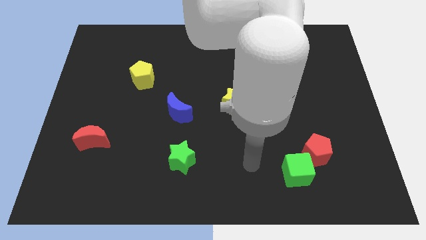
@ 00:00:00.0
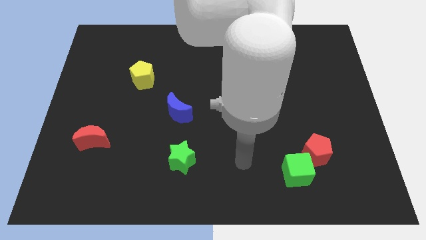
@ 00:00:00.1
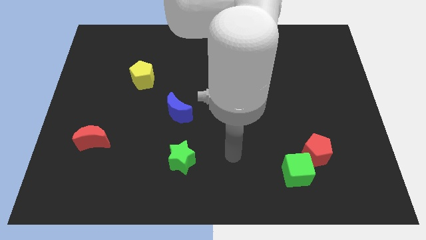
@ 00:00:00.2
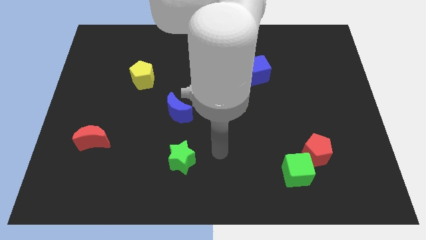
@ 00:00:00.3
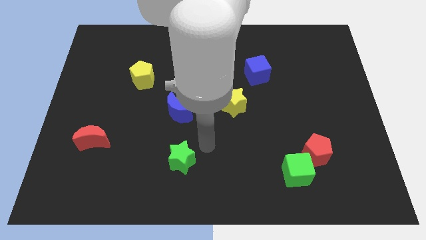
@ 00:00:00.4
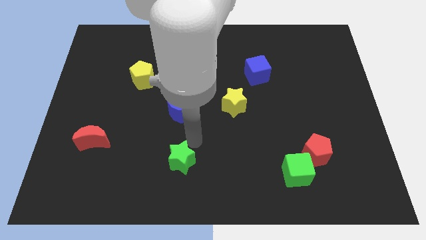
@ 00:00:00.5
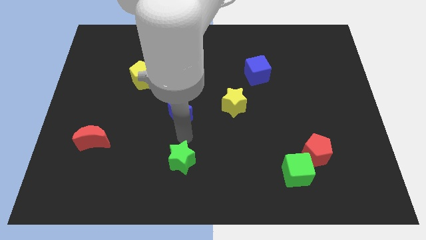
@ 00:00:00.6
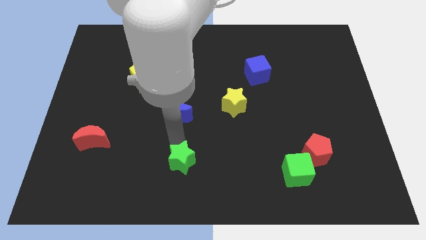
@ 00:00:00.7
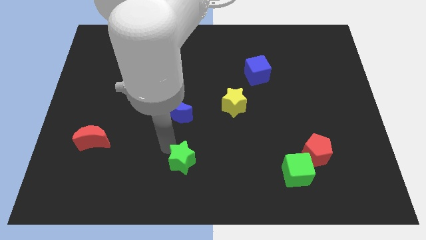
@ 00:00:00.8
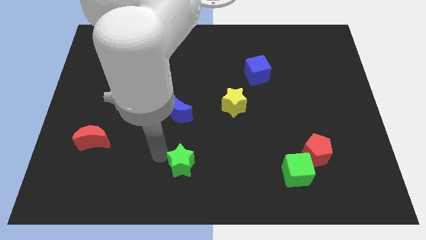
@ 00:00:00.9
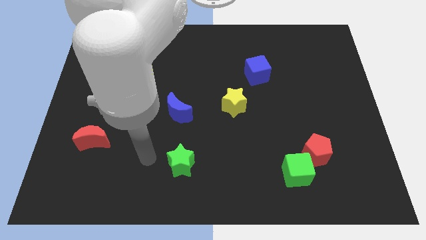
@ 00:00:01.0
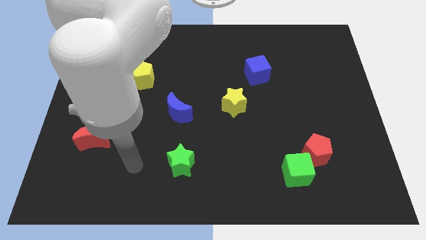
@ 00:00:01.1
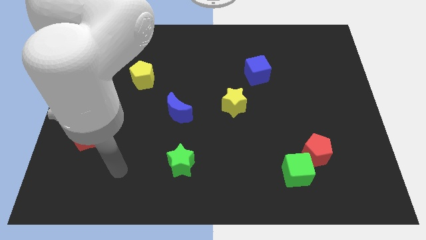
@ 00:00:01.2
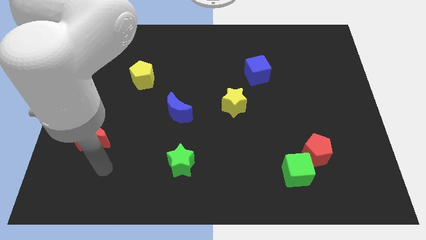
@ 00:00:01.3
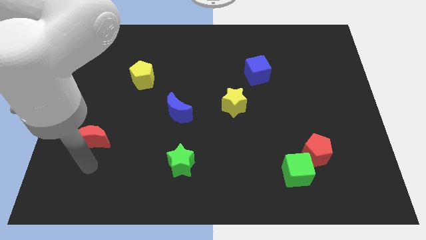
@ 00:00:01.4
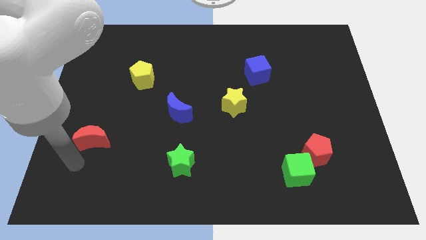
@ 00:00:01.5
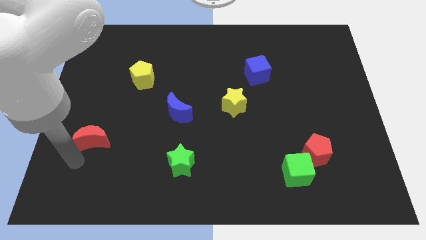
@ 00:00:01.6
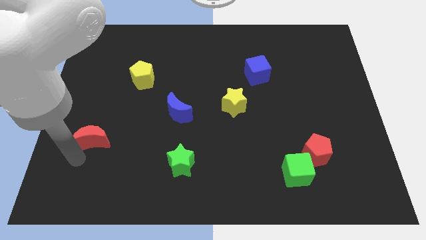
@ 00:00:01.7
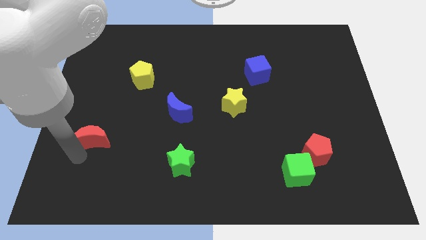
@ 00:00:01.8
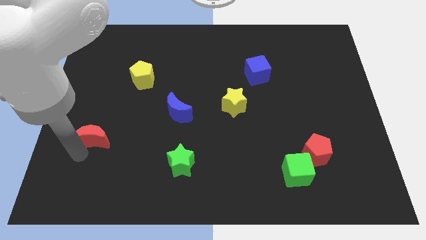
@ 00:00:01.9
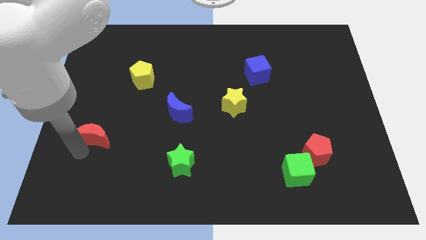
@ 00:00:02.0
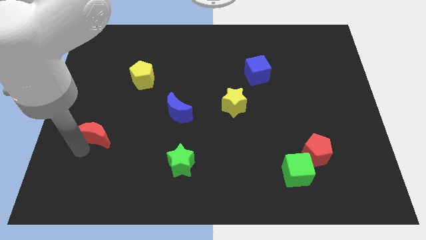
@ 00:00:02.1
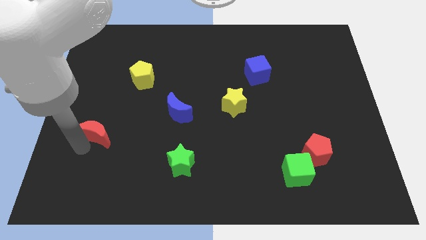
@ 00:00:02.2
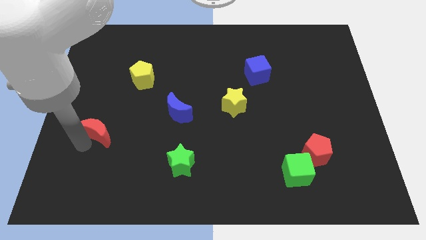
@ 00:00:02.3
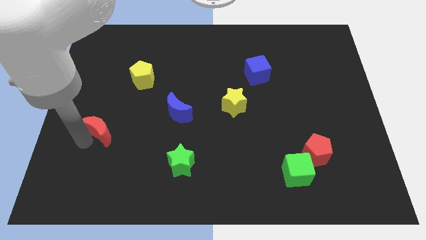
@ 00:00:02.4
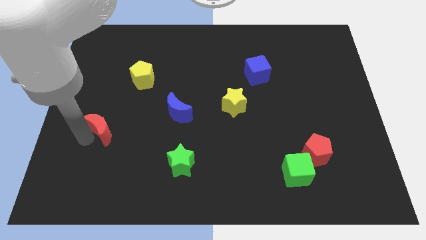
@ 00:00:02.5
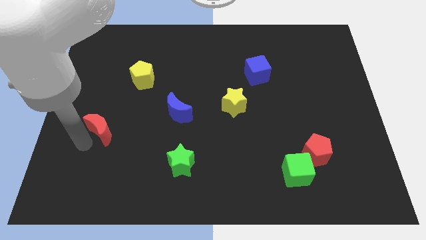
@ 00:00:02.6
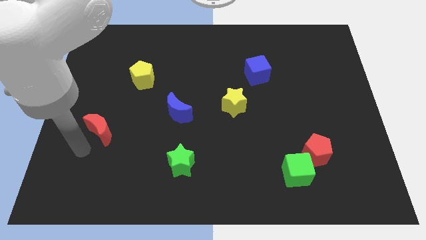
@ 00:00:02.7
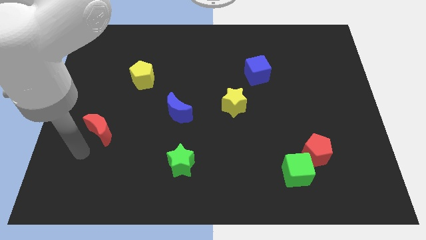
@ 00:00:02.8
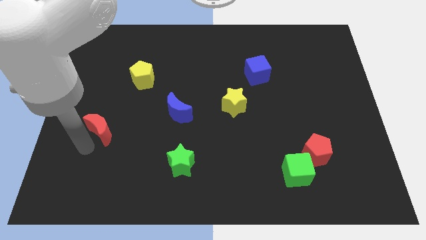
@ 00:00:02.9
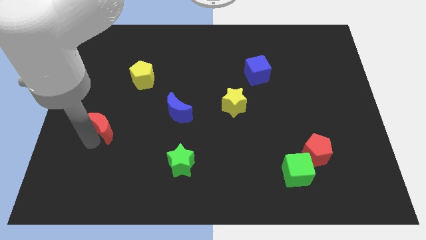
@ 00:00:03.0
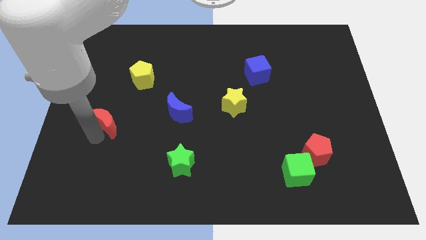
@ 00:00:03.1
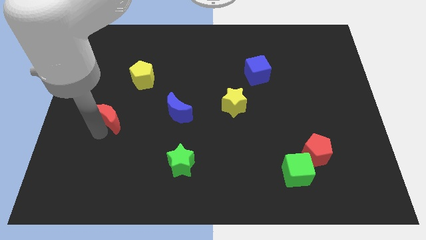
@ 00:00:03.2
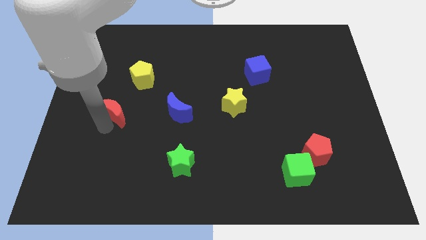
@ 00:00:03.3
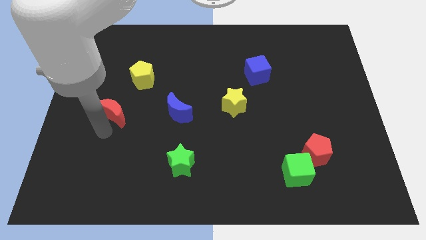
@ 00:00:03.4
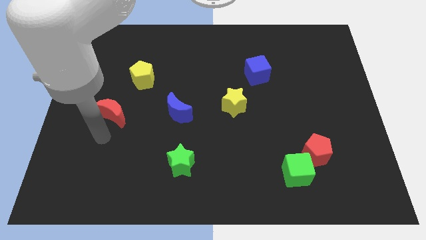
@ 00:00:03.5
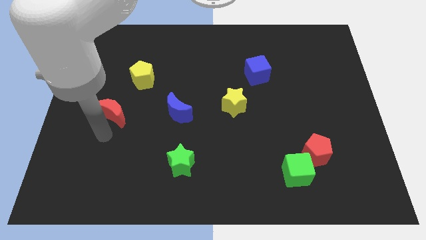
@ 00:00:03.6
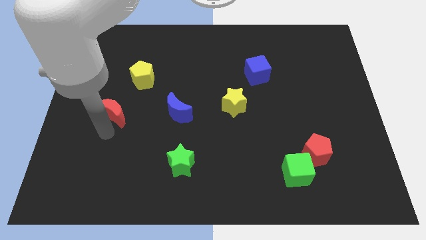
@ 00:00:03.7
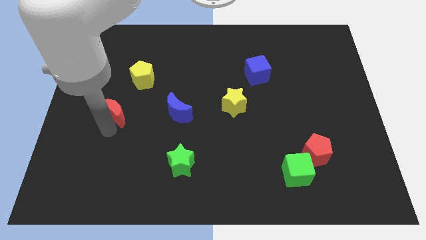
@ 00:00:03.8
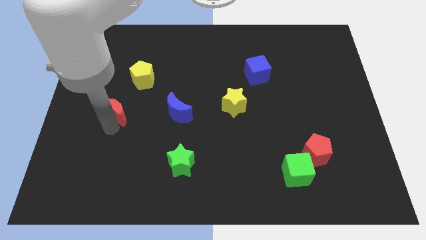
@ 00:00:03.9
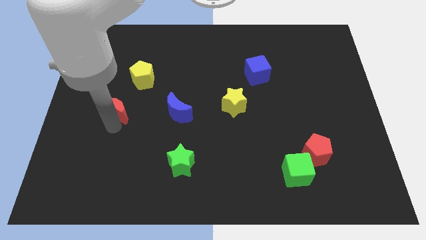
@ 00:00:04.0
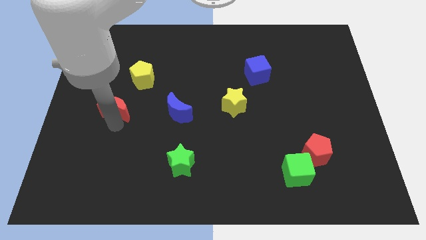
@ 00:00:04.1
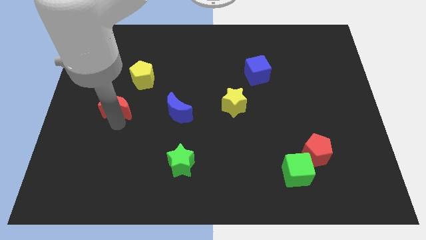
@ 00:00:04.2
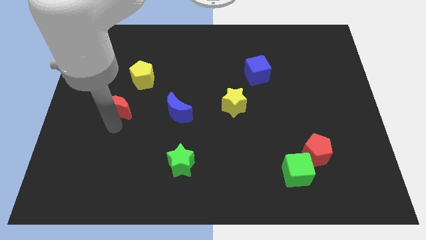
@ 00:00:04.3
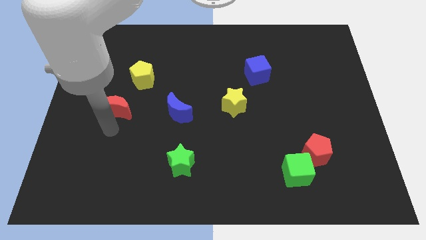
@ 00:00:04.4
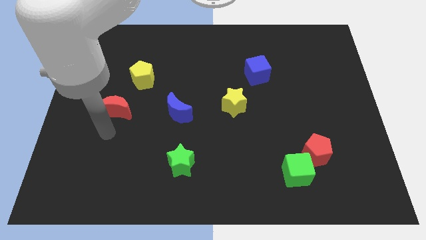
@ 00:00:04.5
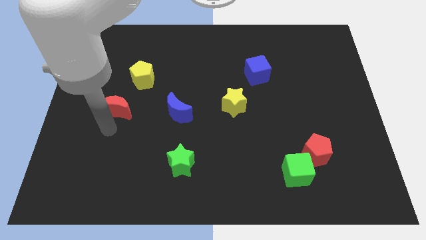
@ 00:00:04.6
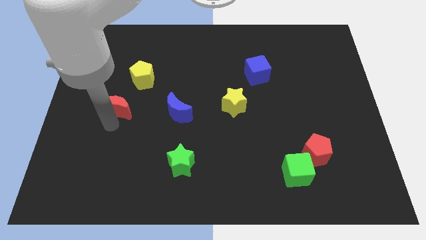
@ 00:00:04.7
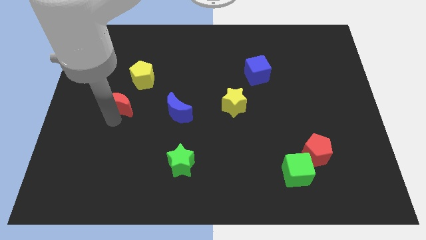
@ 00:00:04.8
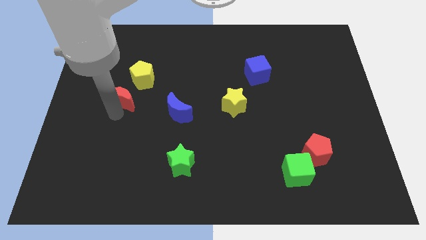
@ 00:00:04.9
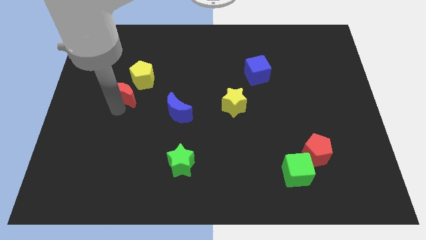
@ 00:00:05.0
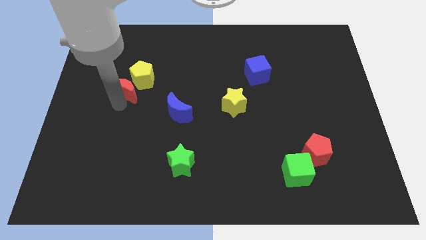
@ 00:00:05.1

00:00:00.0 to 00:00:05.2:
put the red moon close to the yellow pentagon

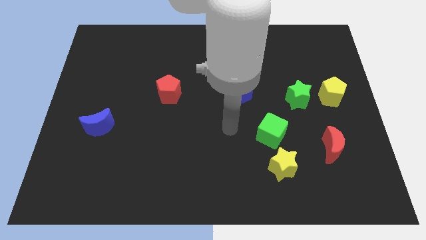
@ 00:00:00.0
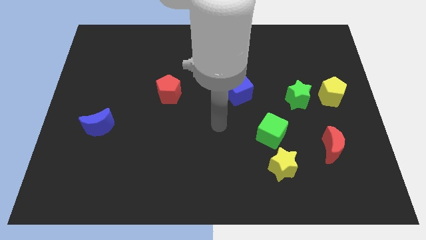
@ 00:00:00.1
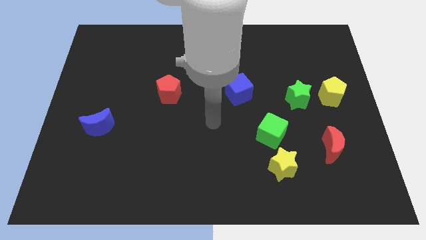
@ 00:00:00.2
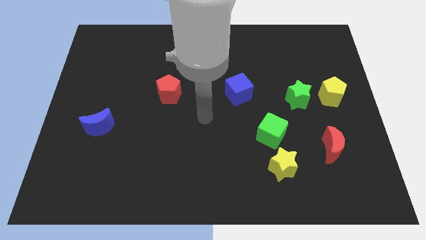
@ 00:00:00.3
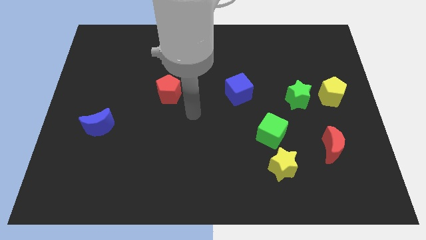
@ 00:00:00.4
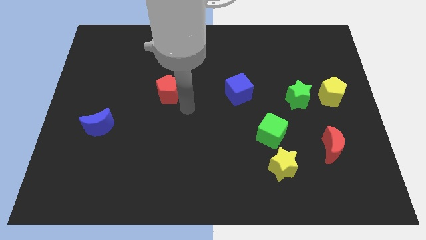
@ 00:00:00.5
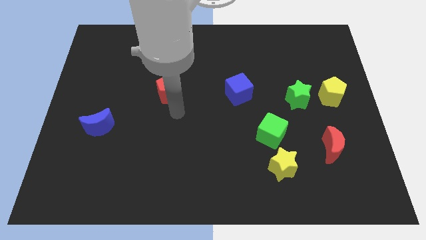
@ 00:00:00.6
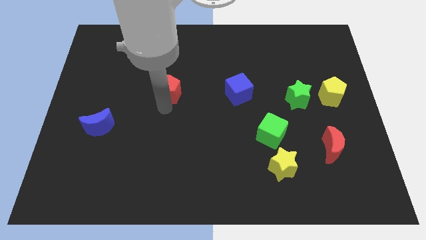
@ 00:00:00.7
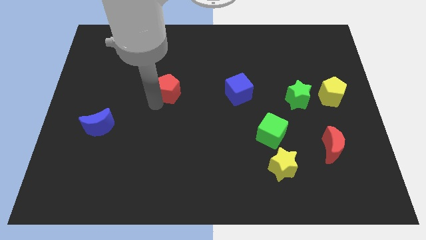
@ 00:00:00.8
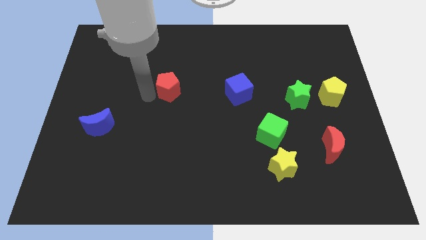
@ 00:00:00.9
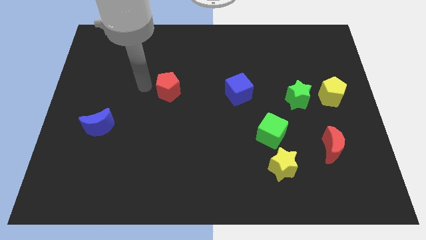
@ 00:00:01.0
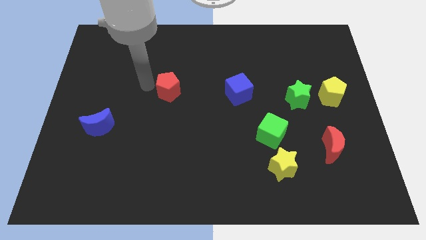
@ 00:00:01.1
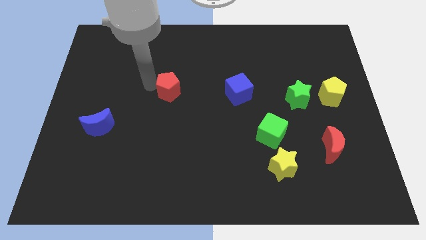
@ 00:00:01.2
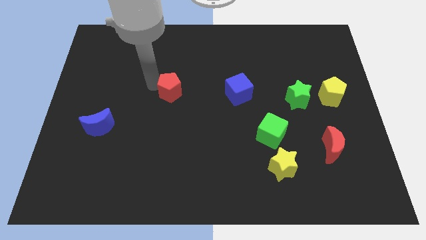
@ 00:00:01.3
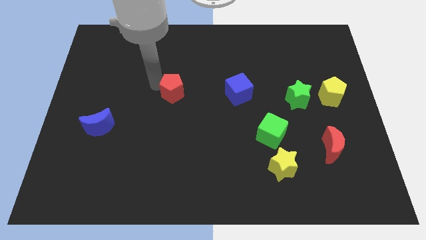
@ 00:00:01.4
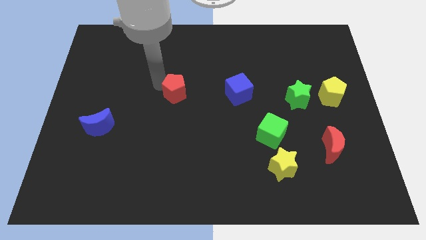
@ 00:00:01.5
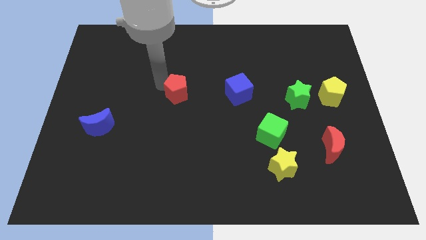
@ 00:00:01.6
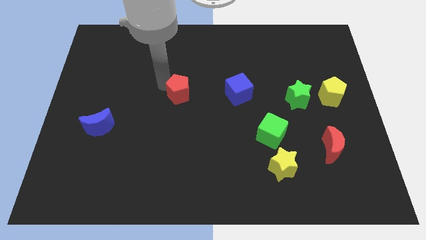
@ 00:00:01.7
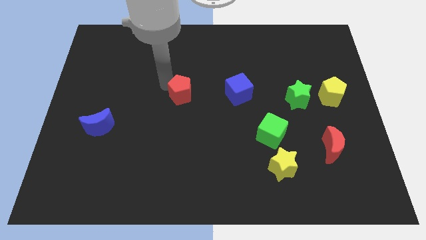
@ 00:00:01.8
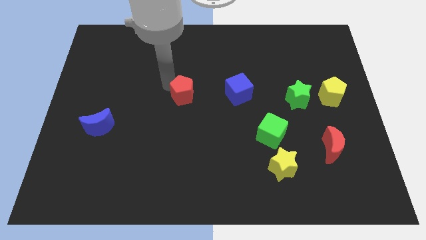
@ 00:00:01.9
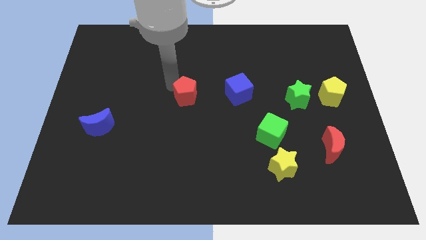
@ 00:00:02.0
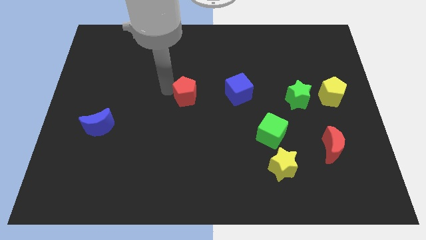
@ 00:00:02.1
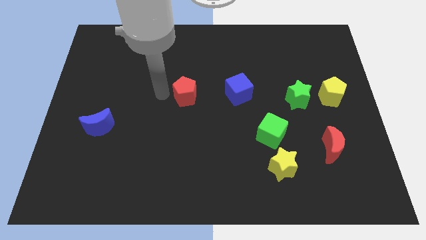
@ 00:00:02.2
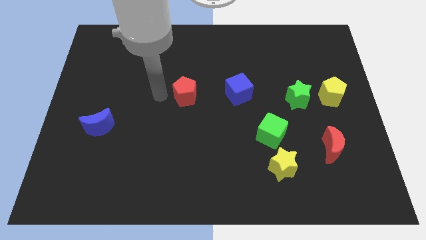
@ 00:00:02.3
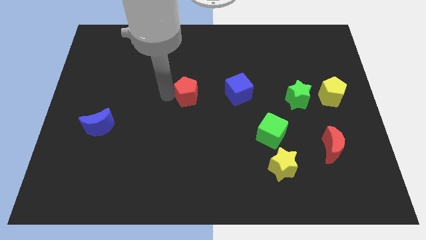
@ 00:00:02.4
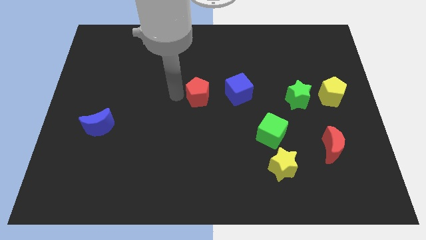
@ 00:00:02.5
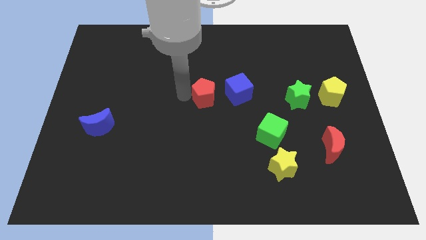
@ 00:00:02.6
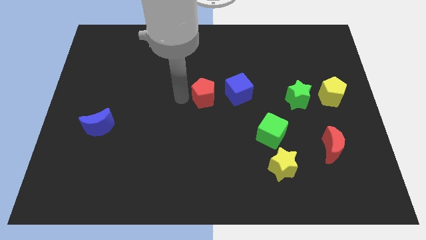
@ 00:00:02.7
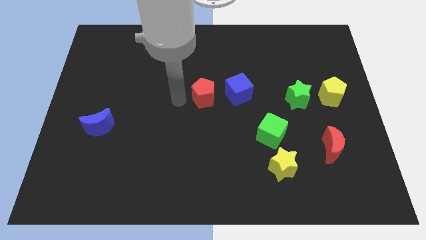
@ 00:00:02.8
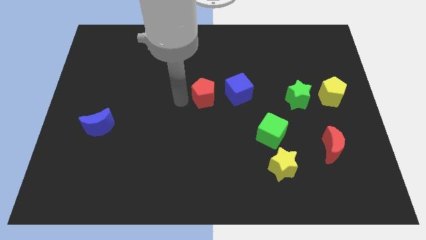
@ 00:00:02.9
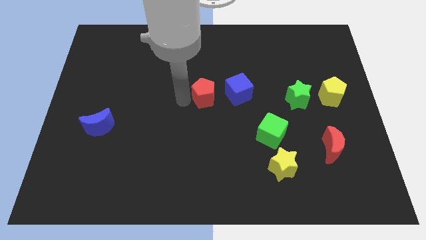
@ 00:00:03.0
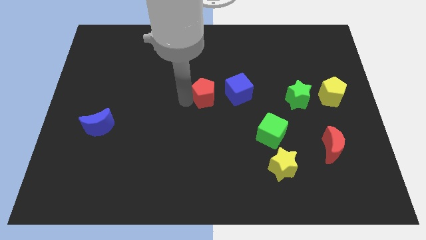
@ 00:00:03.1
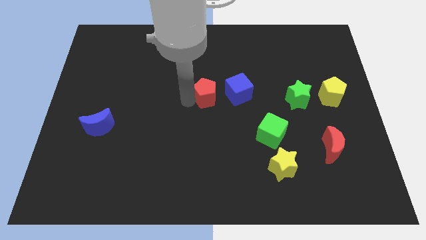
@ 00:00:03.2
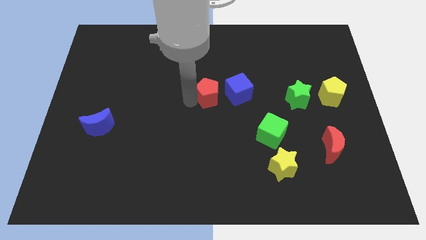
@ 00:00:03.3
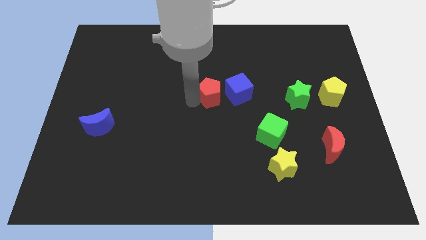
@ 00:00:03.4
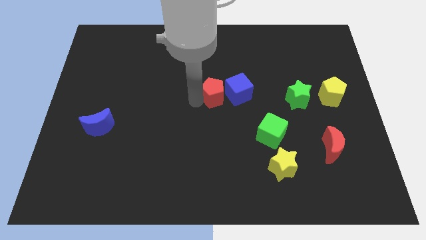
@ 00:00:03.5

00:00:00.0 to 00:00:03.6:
push the red pentagon close to the blue cube
